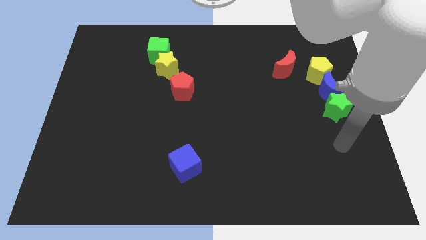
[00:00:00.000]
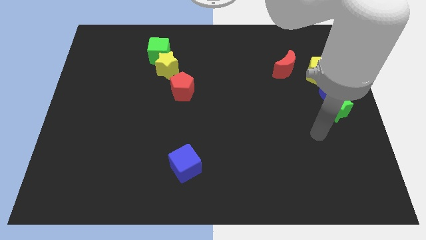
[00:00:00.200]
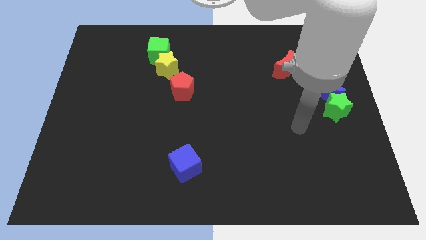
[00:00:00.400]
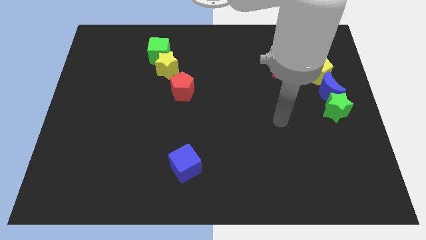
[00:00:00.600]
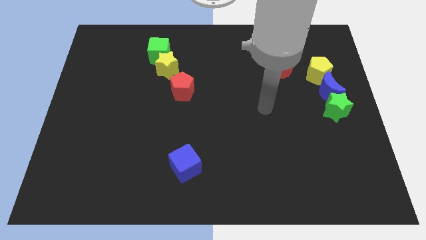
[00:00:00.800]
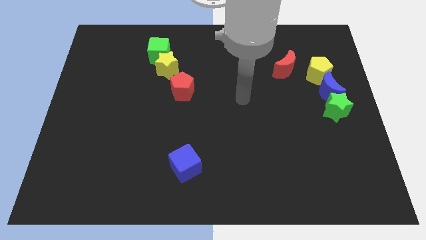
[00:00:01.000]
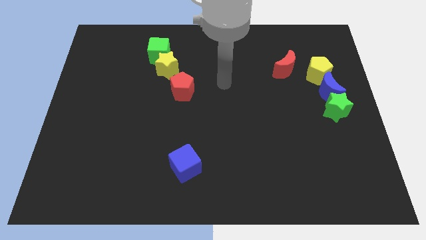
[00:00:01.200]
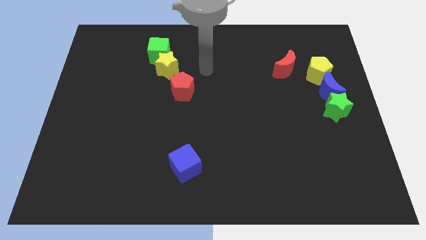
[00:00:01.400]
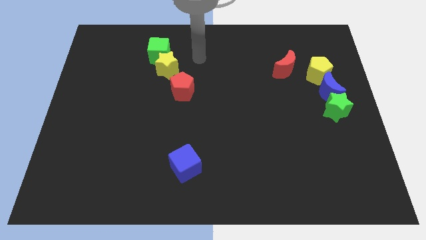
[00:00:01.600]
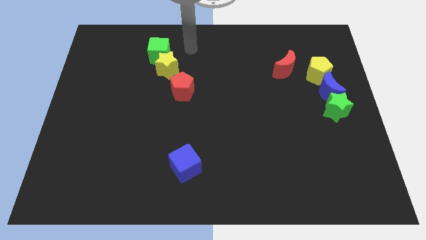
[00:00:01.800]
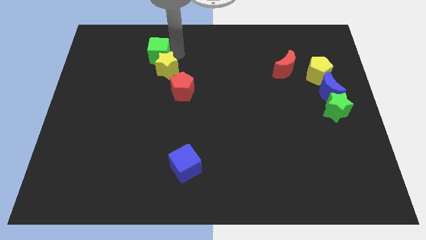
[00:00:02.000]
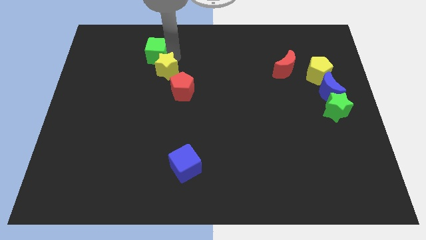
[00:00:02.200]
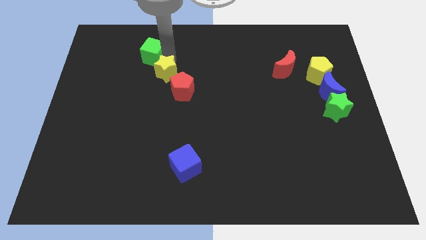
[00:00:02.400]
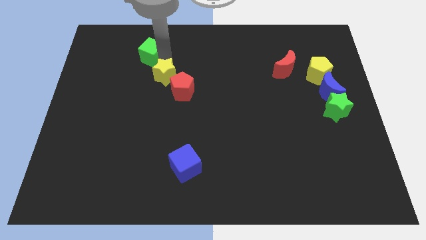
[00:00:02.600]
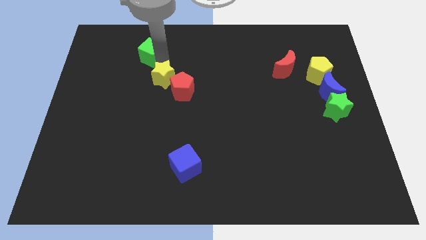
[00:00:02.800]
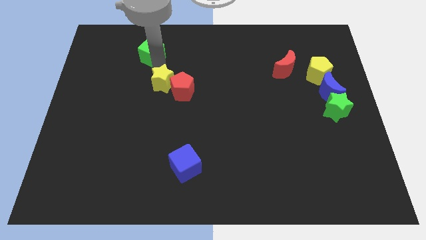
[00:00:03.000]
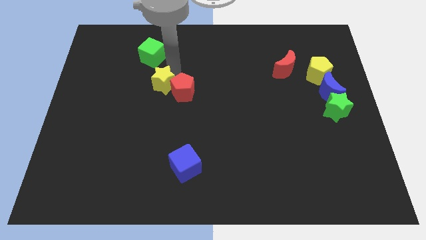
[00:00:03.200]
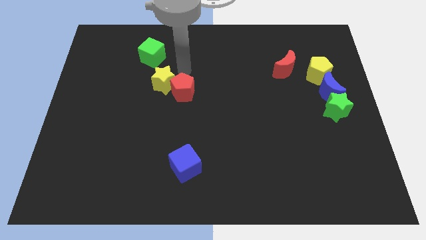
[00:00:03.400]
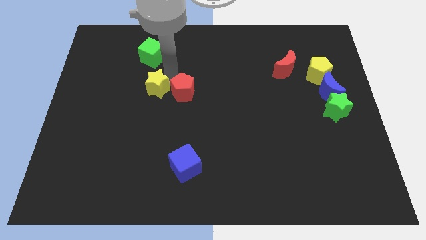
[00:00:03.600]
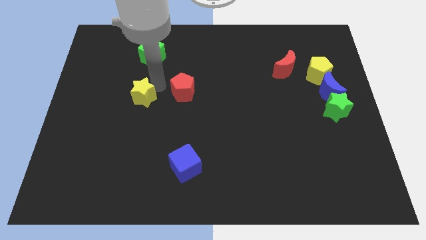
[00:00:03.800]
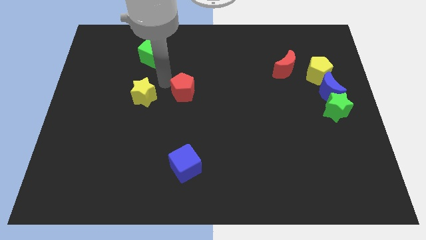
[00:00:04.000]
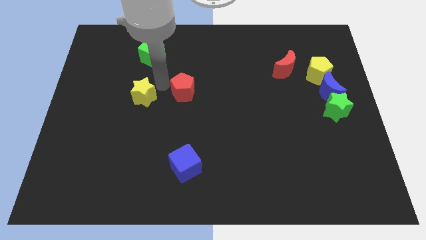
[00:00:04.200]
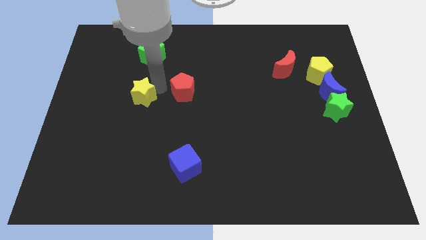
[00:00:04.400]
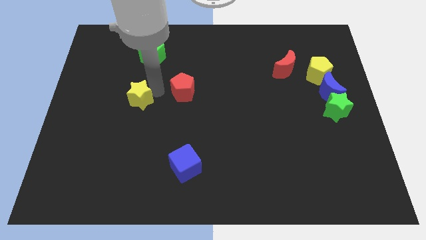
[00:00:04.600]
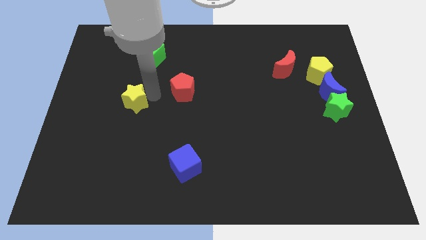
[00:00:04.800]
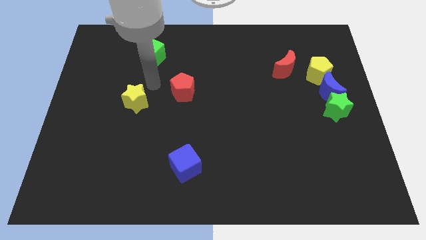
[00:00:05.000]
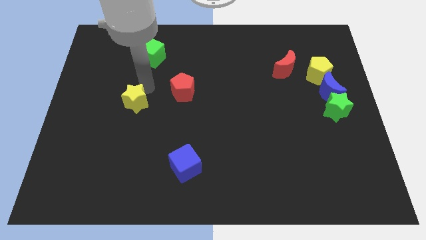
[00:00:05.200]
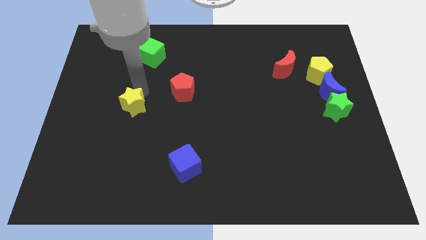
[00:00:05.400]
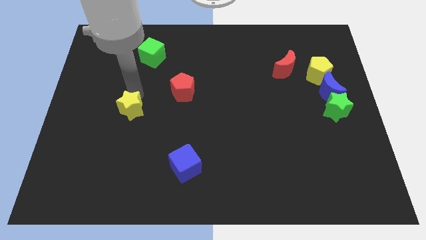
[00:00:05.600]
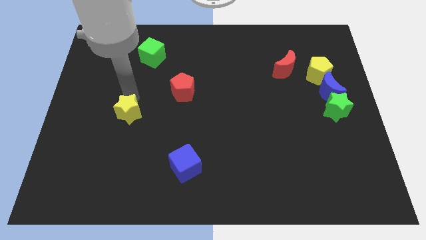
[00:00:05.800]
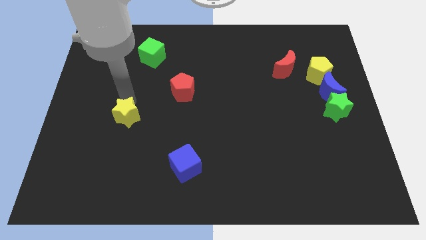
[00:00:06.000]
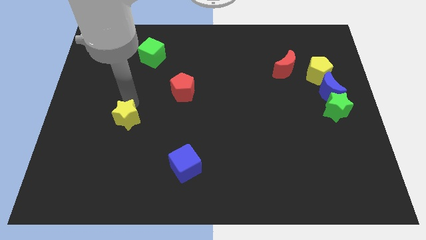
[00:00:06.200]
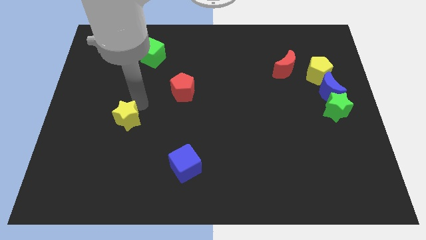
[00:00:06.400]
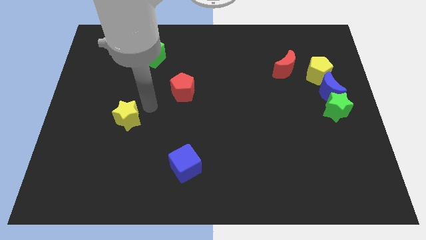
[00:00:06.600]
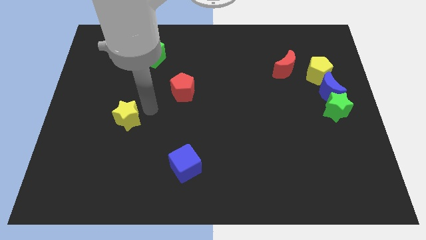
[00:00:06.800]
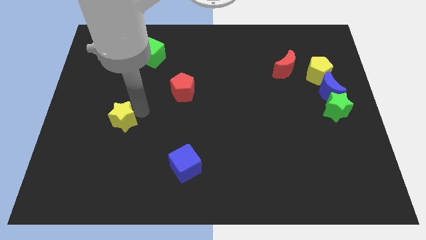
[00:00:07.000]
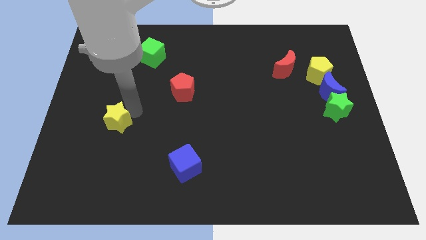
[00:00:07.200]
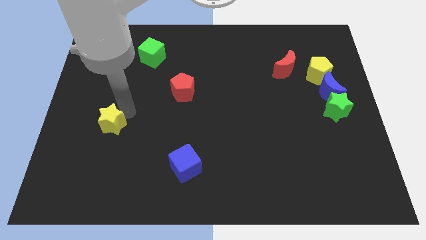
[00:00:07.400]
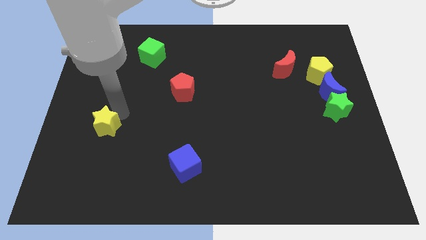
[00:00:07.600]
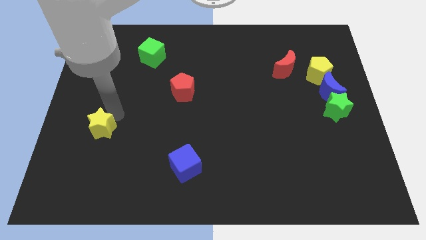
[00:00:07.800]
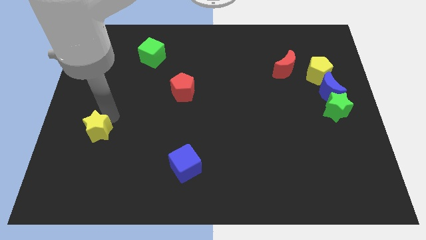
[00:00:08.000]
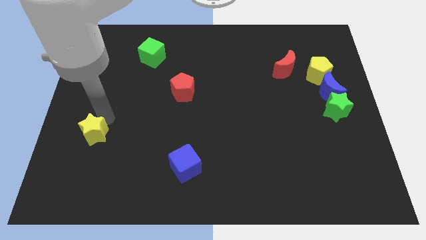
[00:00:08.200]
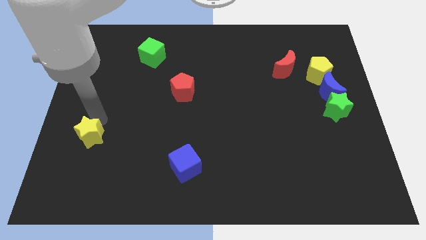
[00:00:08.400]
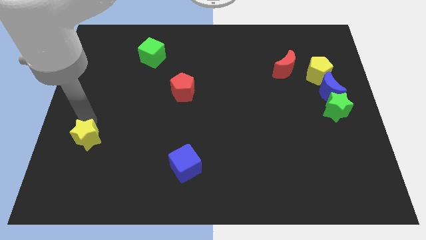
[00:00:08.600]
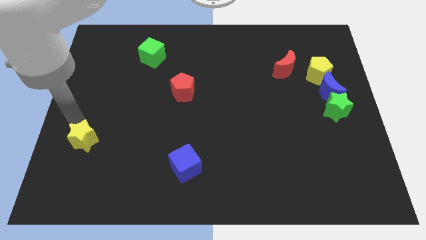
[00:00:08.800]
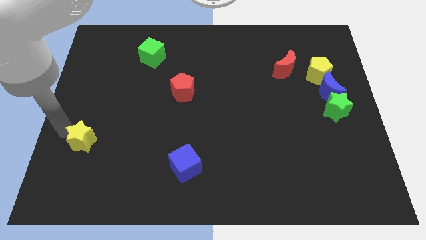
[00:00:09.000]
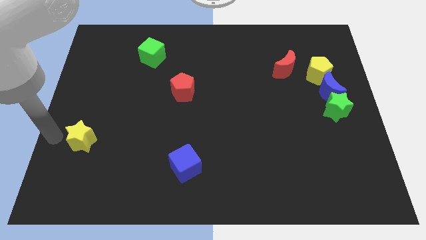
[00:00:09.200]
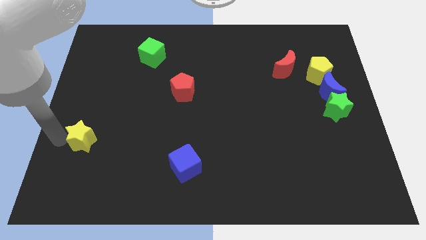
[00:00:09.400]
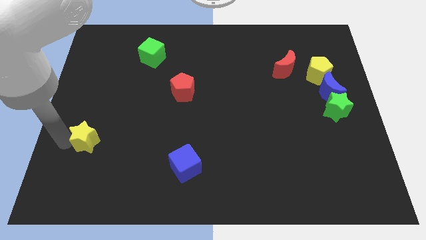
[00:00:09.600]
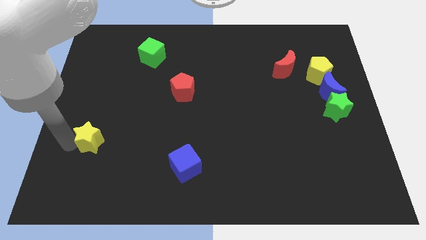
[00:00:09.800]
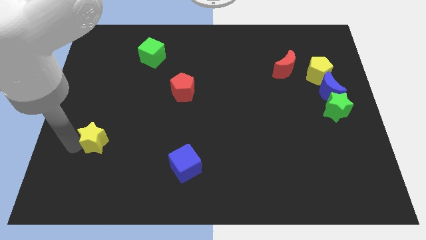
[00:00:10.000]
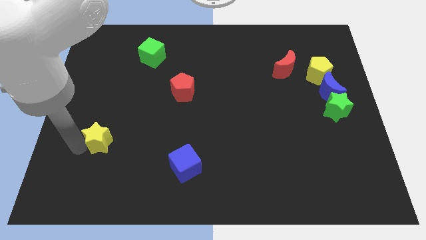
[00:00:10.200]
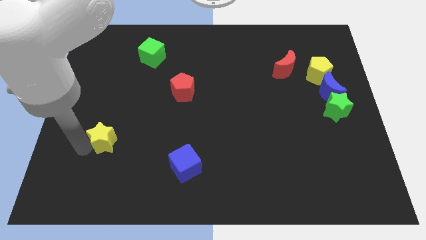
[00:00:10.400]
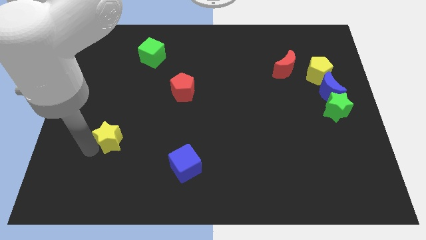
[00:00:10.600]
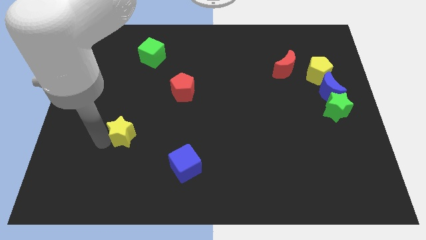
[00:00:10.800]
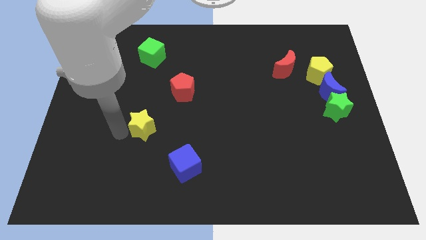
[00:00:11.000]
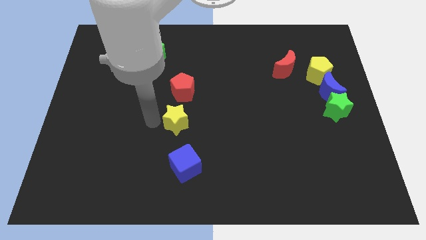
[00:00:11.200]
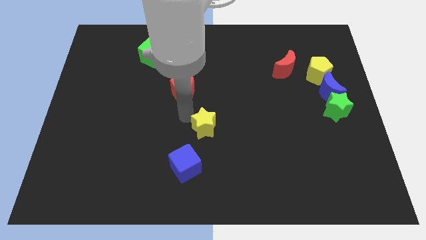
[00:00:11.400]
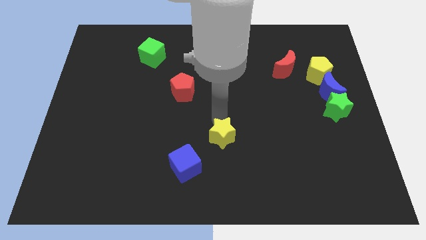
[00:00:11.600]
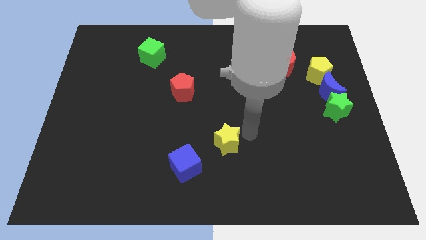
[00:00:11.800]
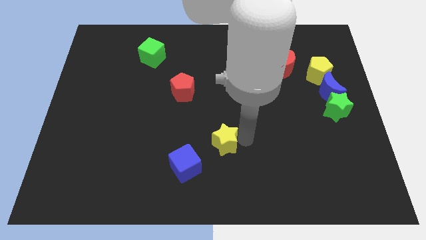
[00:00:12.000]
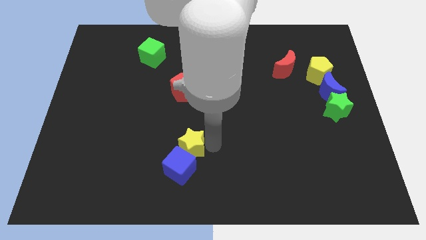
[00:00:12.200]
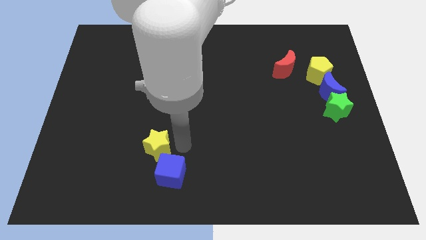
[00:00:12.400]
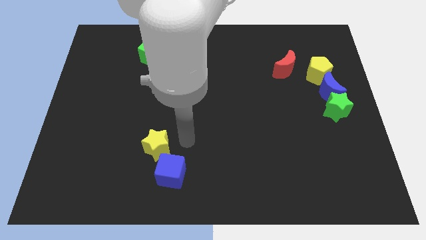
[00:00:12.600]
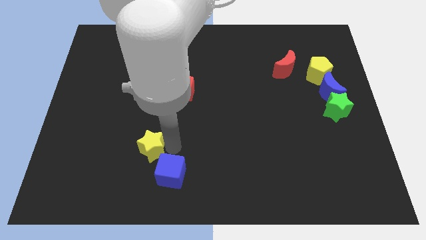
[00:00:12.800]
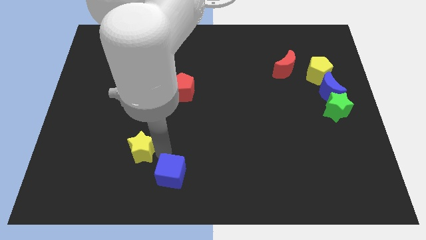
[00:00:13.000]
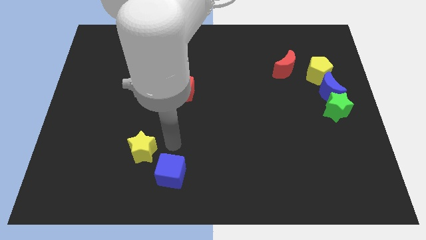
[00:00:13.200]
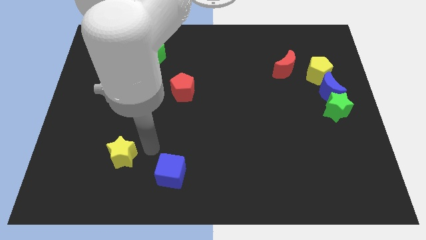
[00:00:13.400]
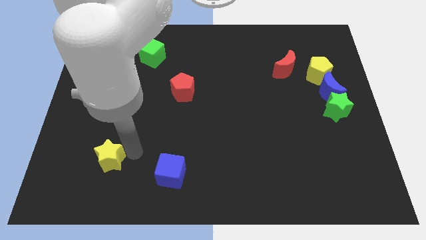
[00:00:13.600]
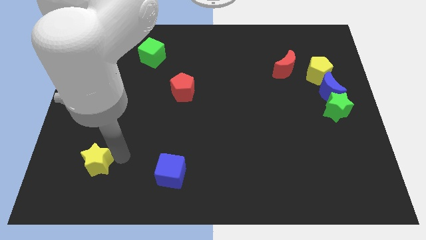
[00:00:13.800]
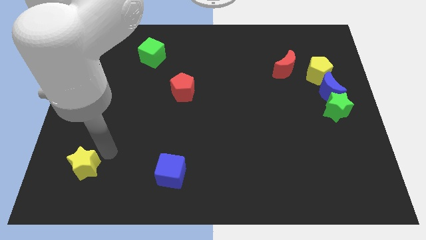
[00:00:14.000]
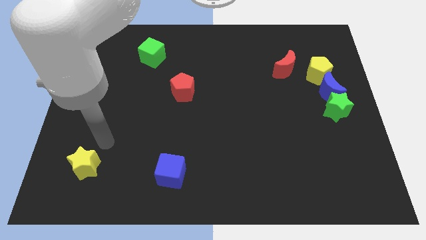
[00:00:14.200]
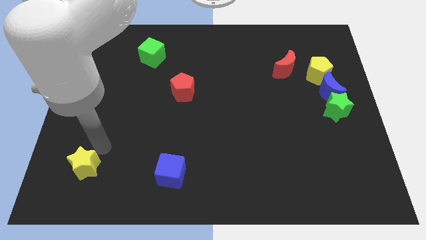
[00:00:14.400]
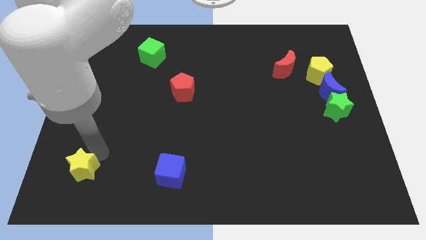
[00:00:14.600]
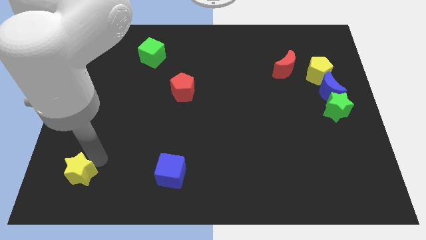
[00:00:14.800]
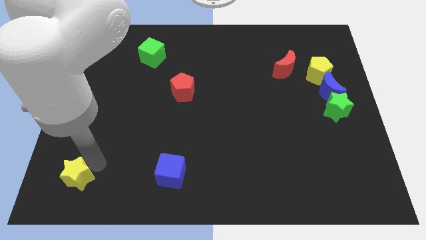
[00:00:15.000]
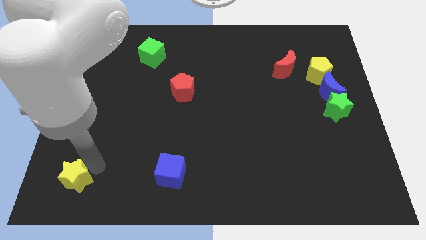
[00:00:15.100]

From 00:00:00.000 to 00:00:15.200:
put the yellow star to the lower left corner
